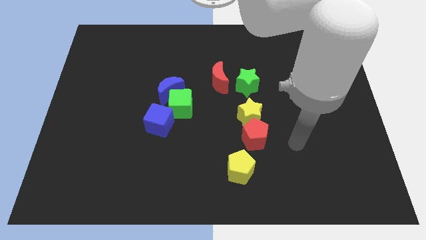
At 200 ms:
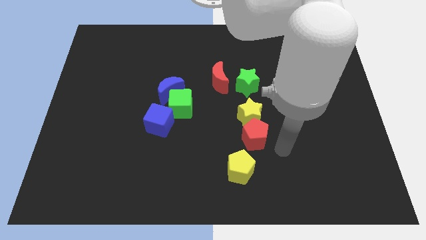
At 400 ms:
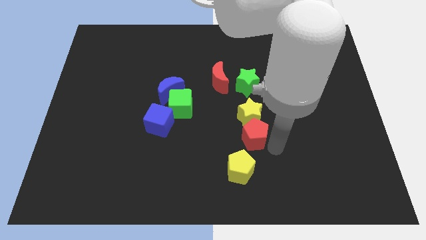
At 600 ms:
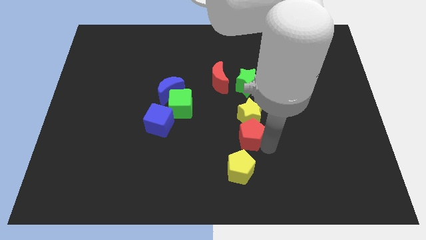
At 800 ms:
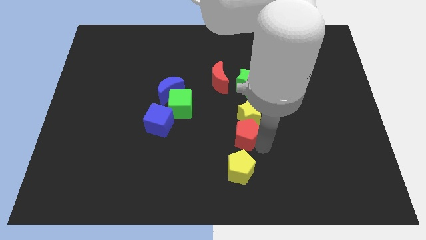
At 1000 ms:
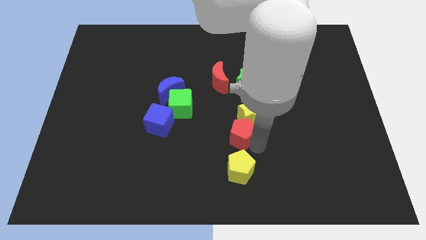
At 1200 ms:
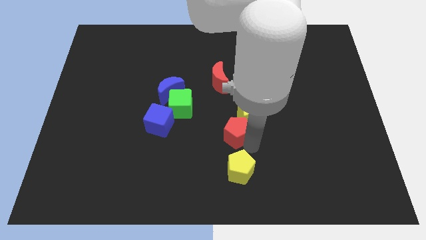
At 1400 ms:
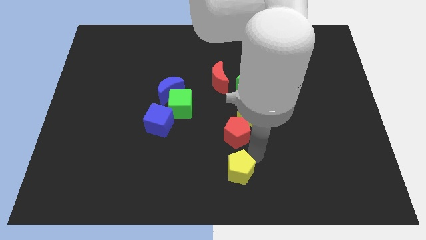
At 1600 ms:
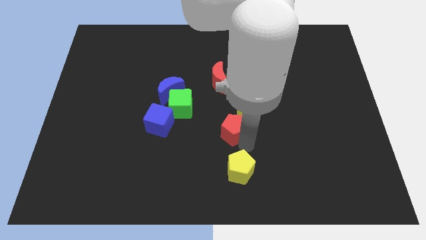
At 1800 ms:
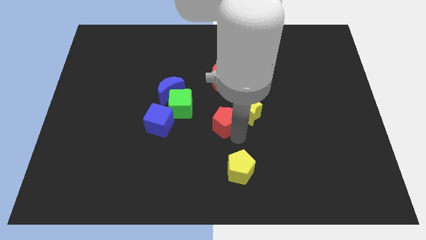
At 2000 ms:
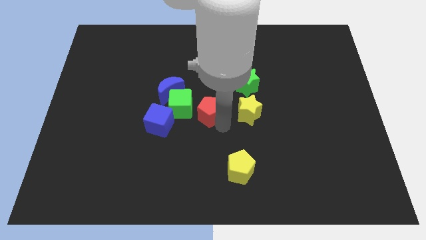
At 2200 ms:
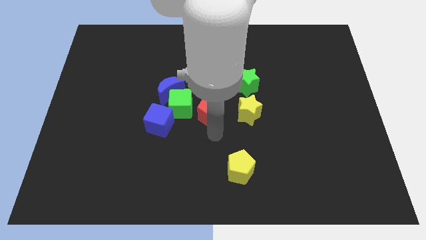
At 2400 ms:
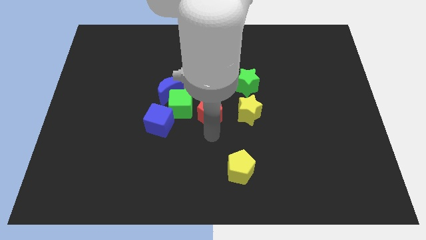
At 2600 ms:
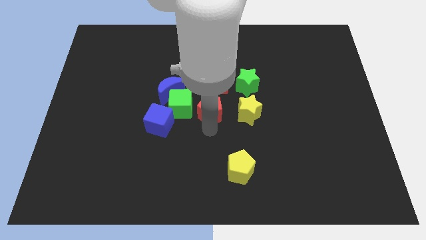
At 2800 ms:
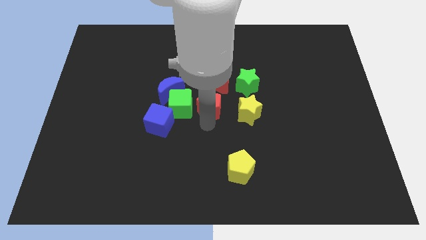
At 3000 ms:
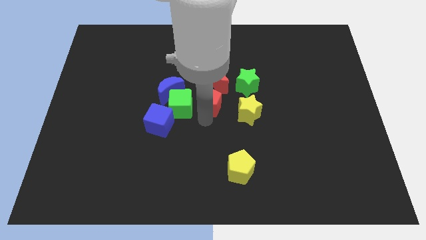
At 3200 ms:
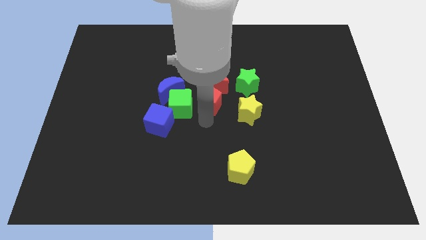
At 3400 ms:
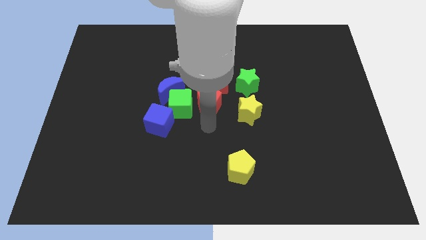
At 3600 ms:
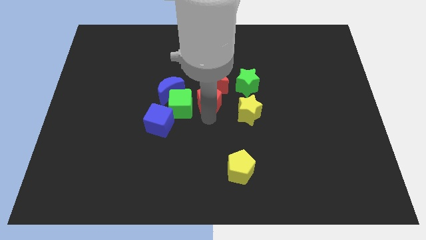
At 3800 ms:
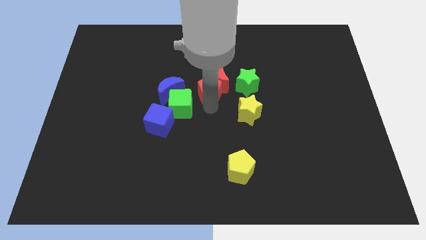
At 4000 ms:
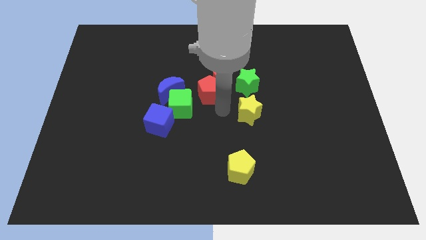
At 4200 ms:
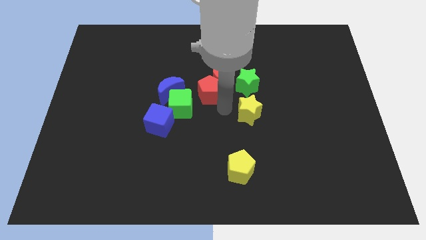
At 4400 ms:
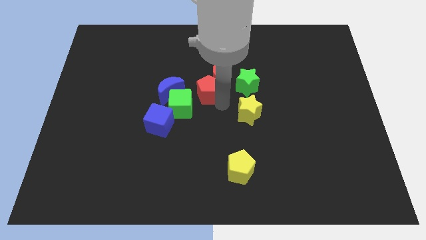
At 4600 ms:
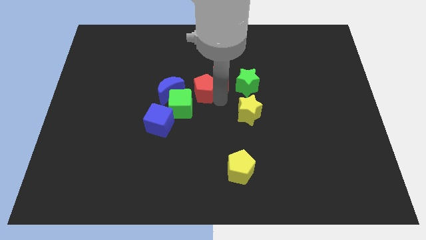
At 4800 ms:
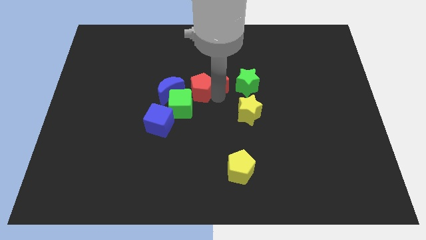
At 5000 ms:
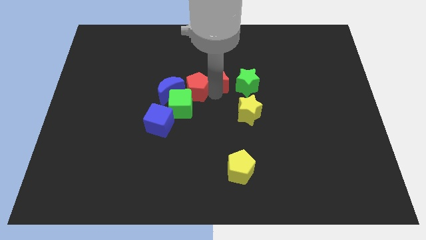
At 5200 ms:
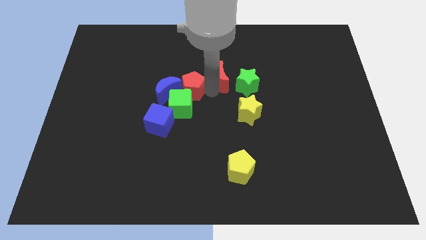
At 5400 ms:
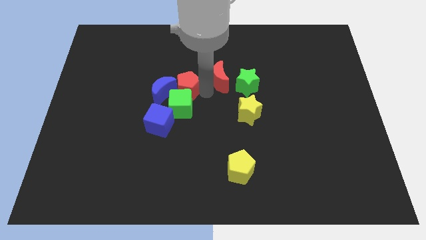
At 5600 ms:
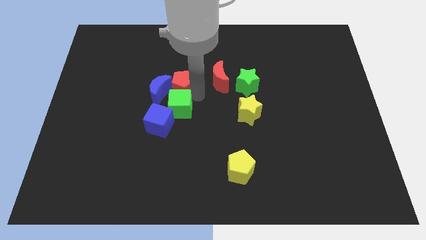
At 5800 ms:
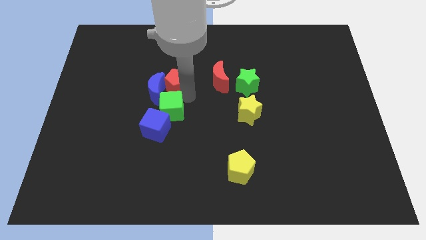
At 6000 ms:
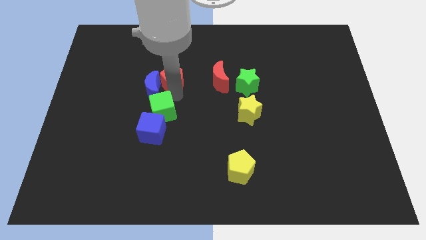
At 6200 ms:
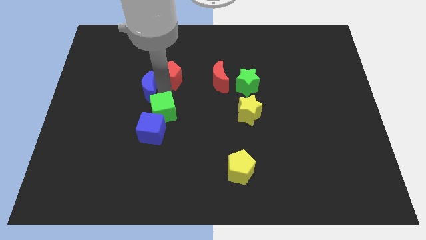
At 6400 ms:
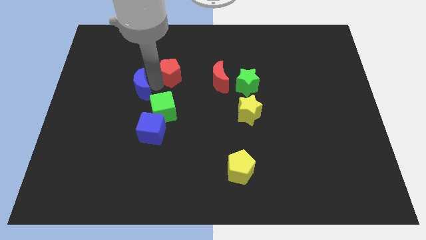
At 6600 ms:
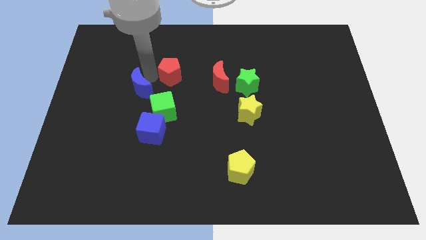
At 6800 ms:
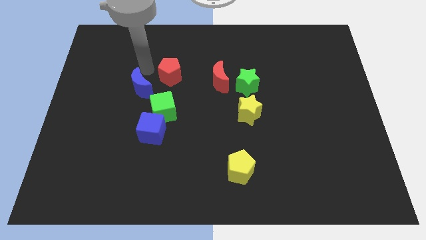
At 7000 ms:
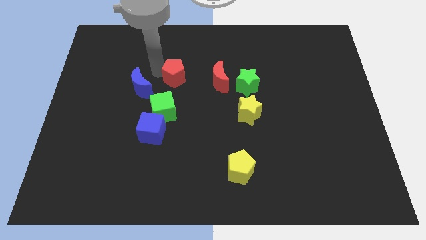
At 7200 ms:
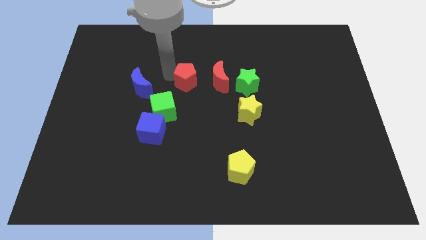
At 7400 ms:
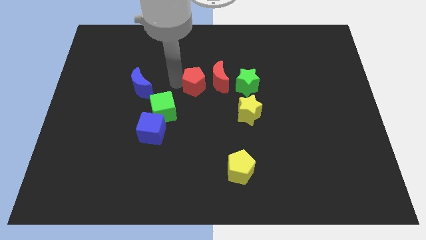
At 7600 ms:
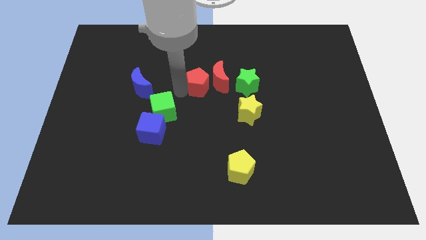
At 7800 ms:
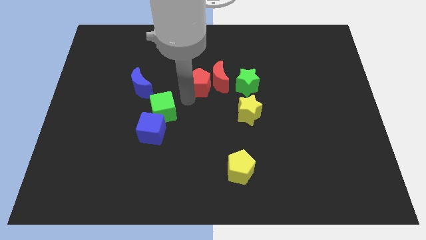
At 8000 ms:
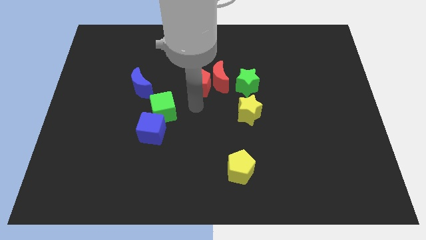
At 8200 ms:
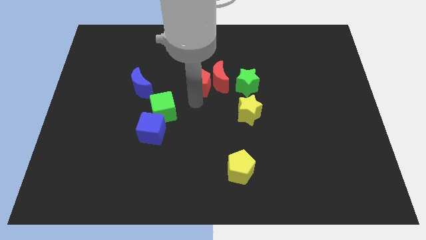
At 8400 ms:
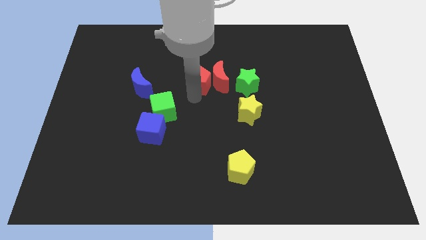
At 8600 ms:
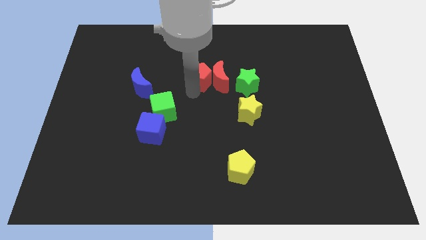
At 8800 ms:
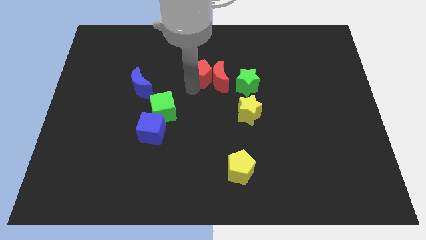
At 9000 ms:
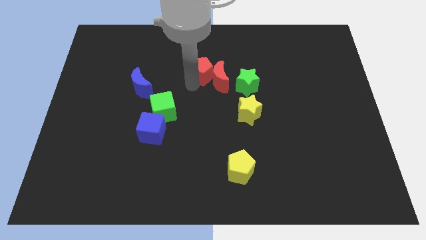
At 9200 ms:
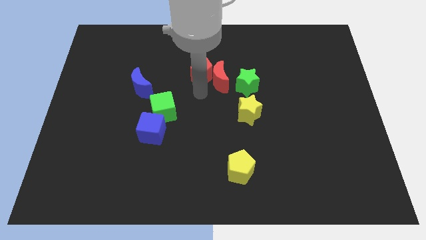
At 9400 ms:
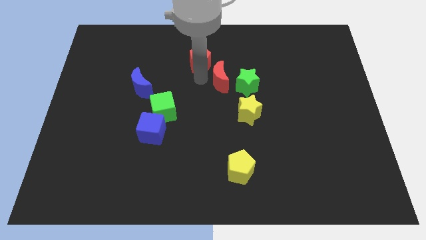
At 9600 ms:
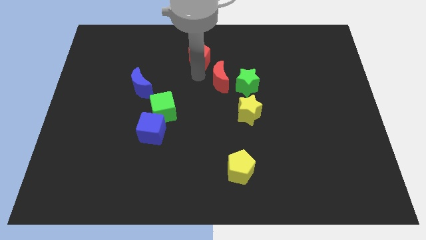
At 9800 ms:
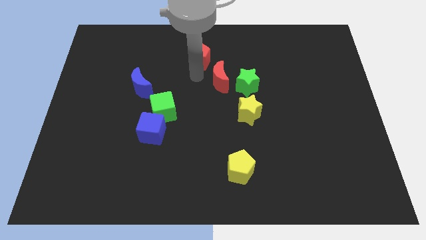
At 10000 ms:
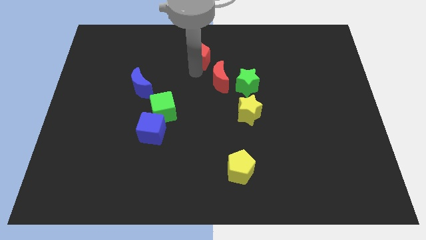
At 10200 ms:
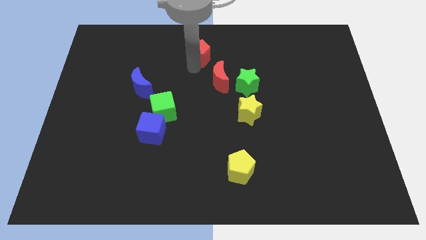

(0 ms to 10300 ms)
put the red pentagon to the top side

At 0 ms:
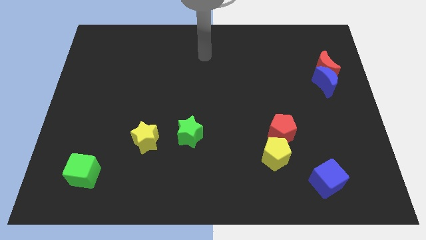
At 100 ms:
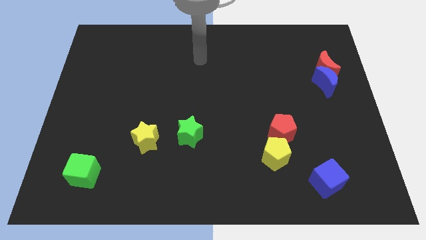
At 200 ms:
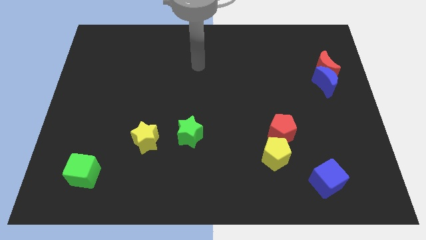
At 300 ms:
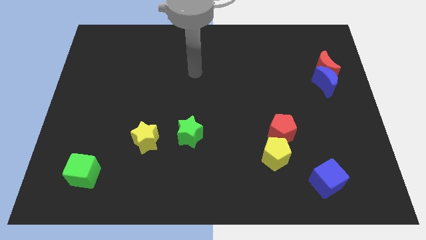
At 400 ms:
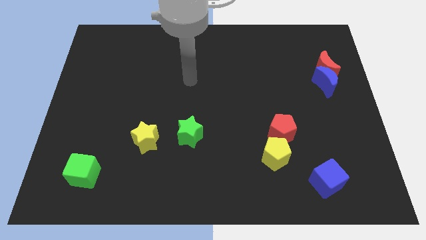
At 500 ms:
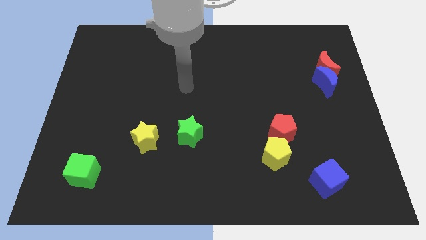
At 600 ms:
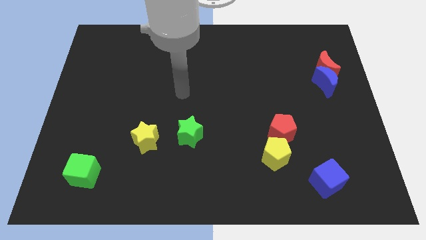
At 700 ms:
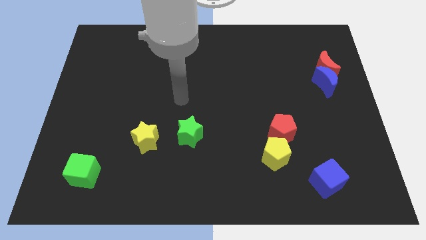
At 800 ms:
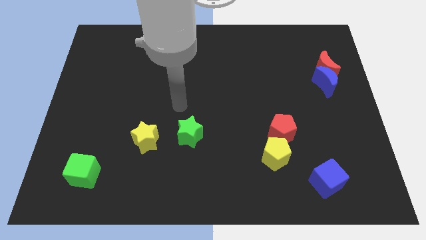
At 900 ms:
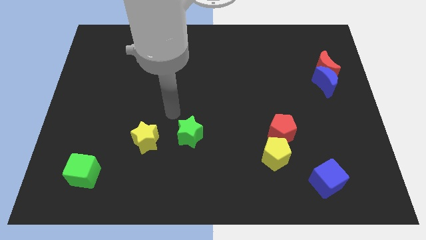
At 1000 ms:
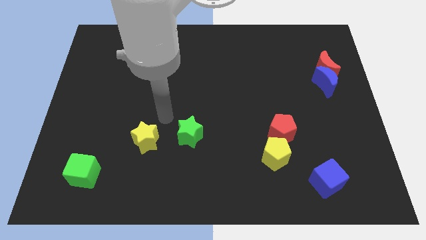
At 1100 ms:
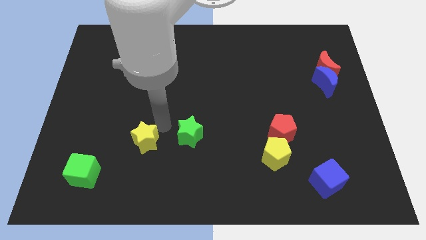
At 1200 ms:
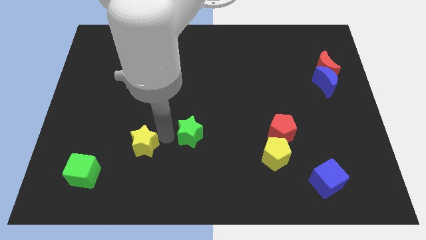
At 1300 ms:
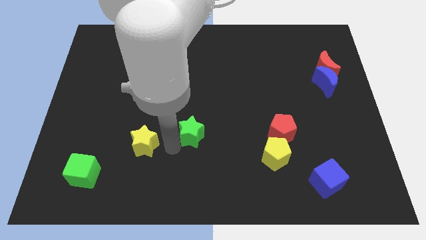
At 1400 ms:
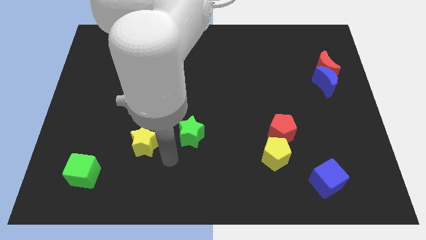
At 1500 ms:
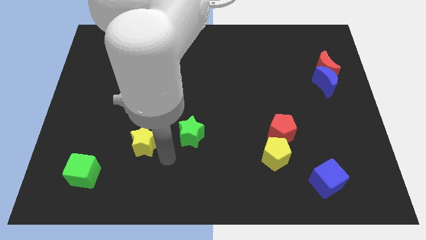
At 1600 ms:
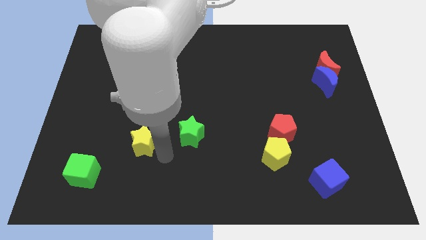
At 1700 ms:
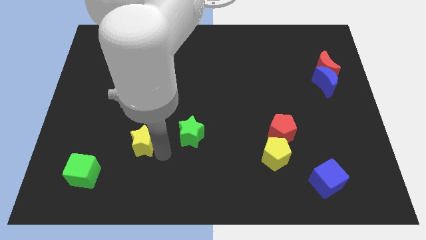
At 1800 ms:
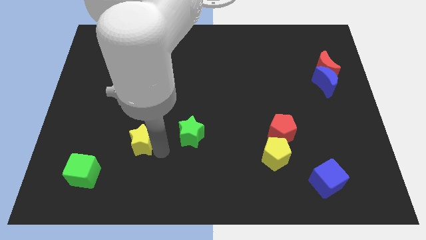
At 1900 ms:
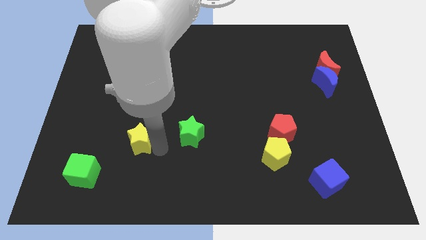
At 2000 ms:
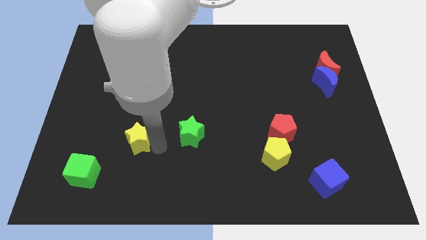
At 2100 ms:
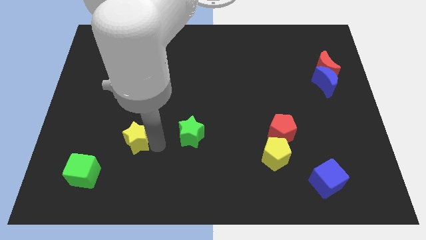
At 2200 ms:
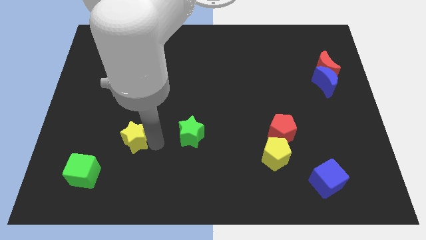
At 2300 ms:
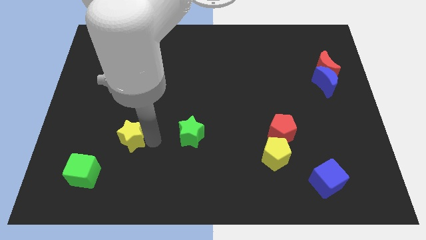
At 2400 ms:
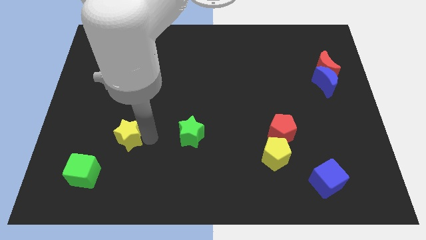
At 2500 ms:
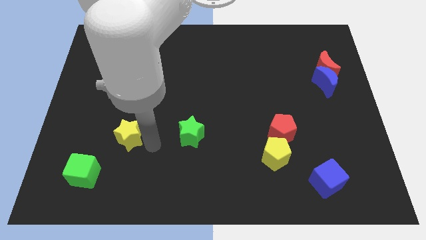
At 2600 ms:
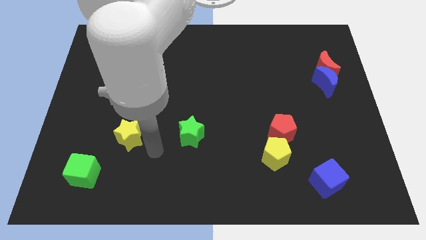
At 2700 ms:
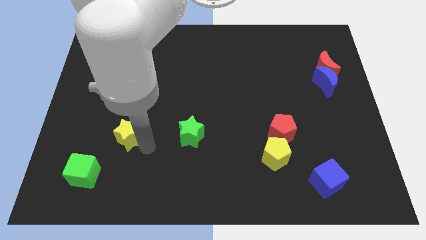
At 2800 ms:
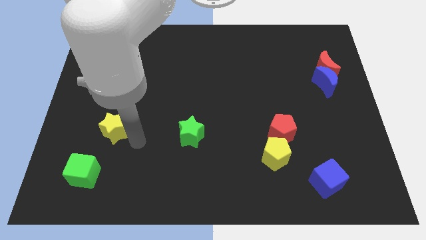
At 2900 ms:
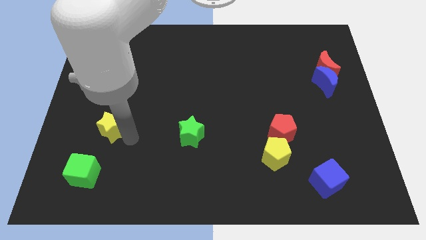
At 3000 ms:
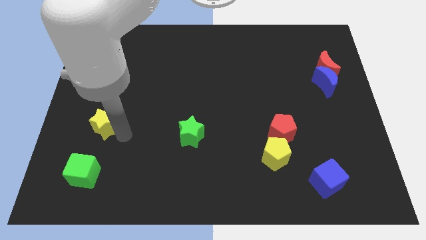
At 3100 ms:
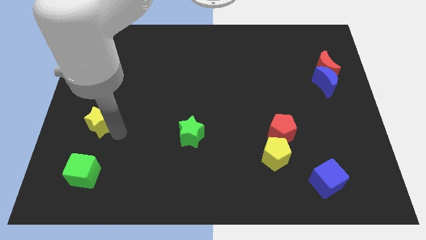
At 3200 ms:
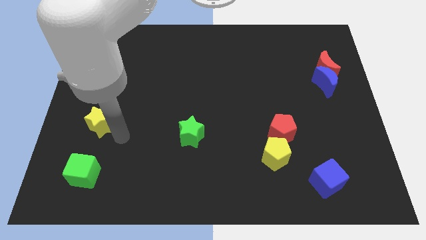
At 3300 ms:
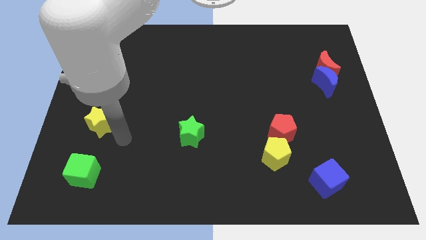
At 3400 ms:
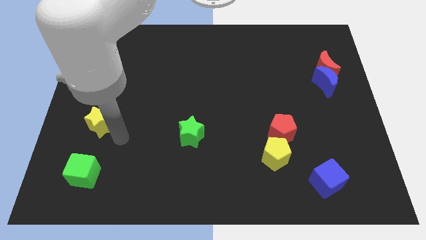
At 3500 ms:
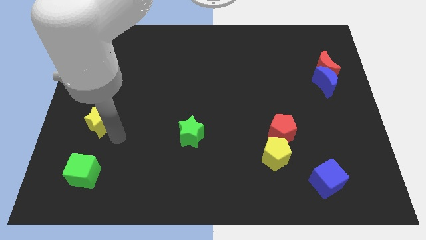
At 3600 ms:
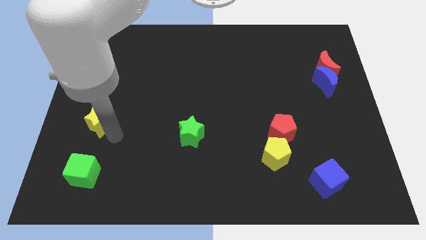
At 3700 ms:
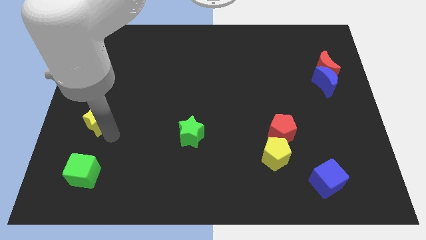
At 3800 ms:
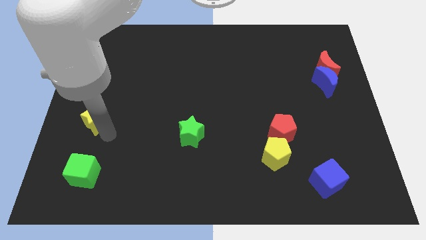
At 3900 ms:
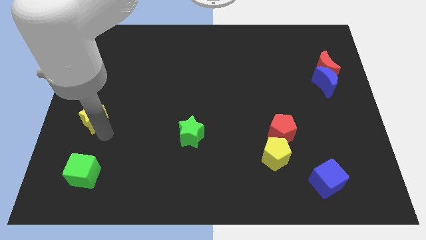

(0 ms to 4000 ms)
put the yellow star to the left side of the board
